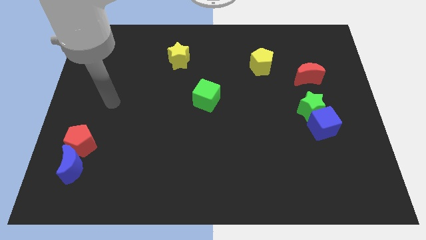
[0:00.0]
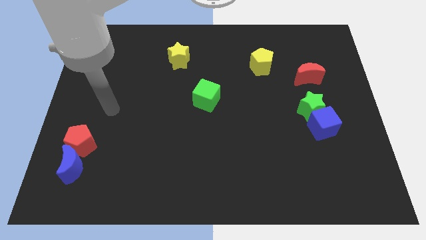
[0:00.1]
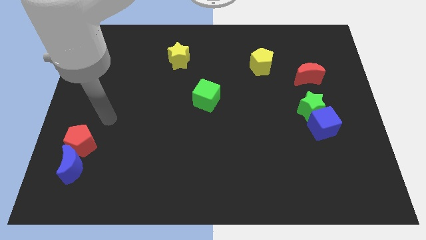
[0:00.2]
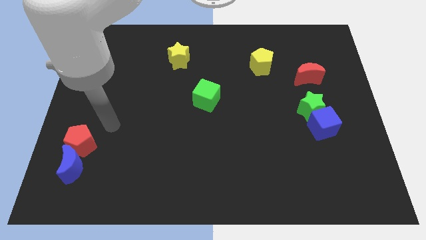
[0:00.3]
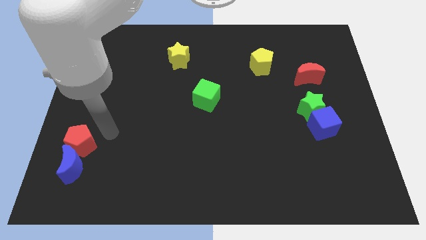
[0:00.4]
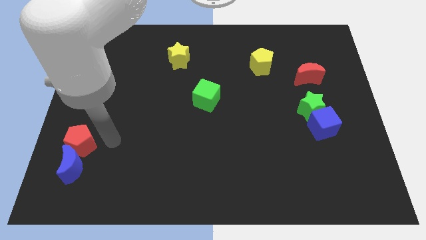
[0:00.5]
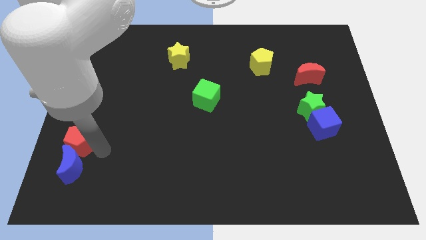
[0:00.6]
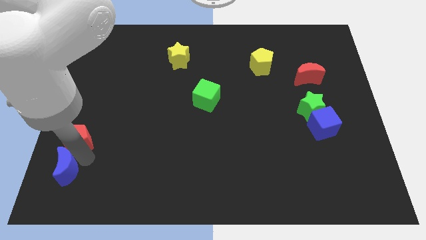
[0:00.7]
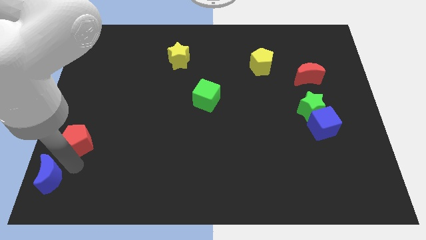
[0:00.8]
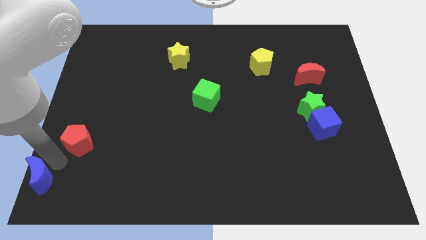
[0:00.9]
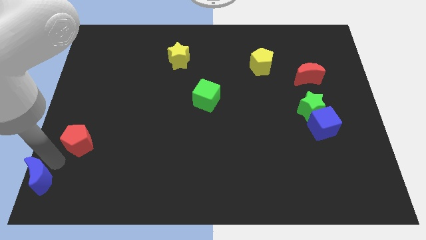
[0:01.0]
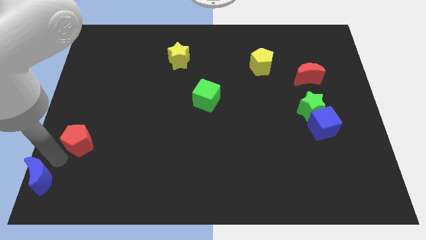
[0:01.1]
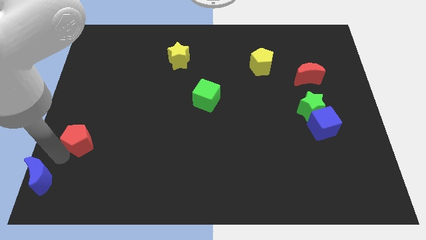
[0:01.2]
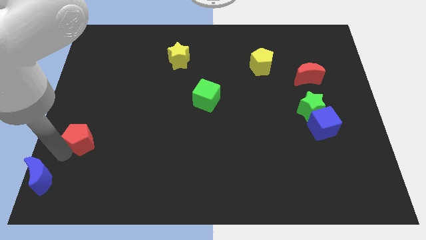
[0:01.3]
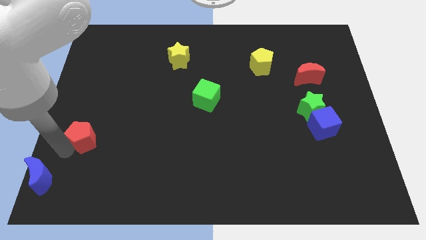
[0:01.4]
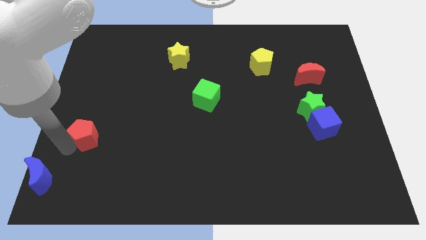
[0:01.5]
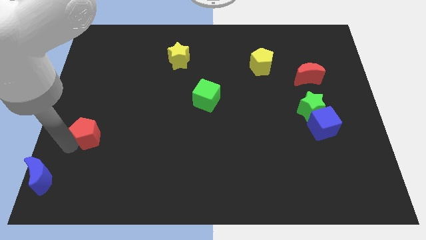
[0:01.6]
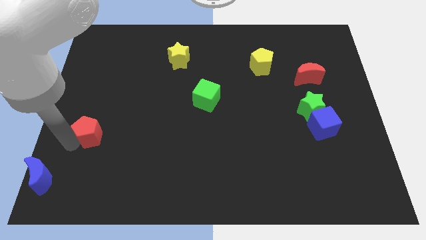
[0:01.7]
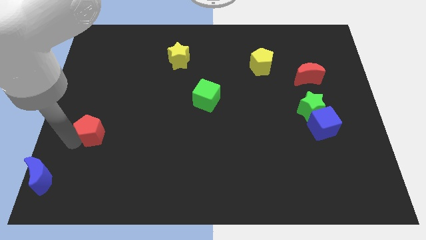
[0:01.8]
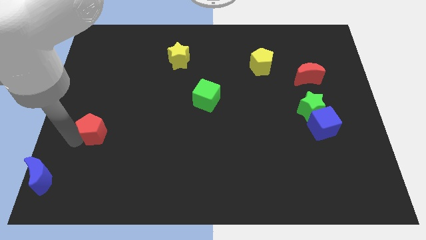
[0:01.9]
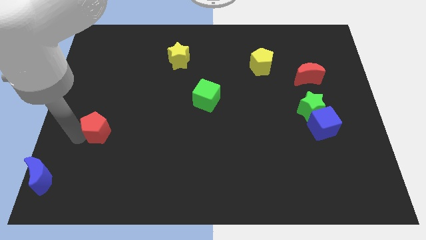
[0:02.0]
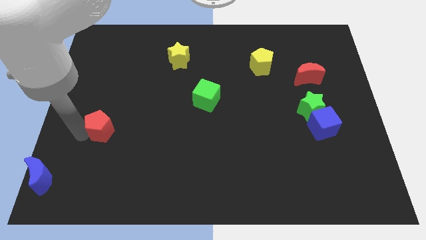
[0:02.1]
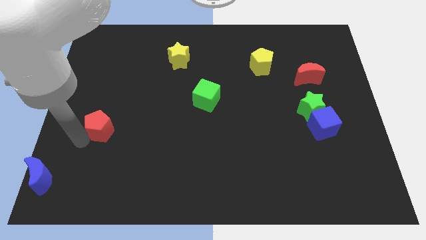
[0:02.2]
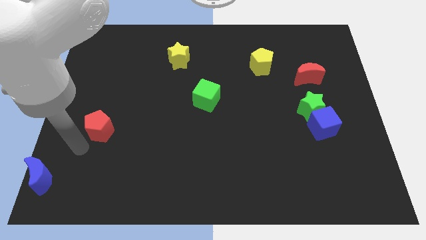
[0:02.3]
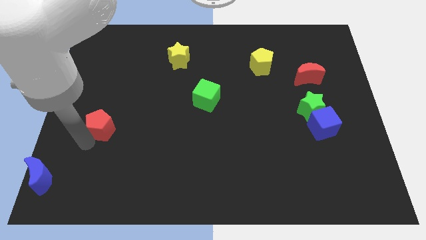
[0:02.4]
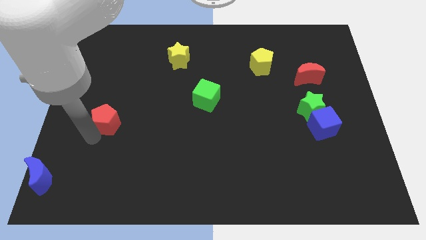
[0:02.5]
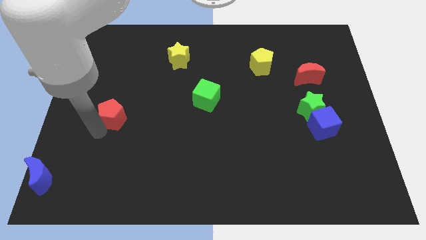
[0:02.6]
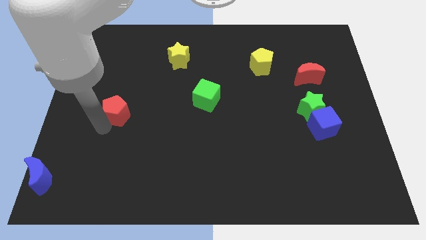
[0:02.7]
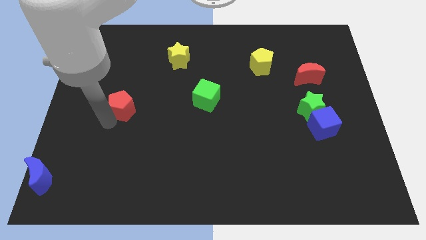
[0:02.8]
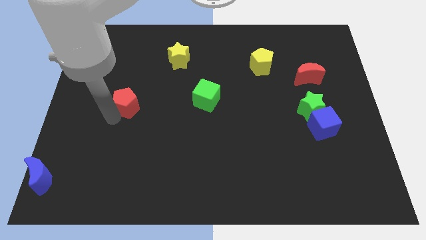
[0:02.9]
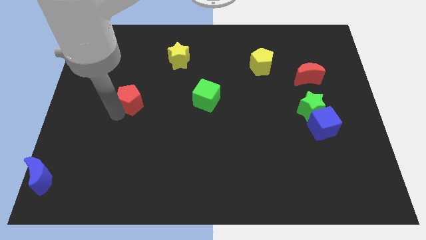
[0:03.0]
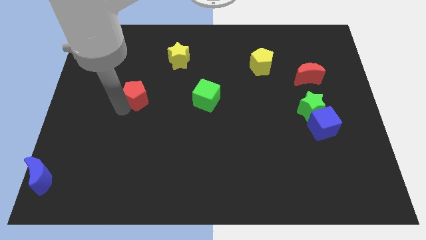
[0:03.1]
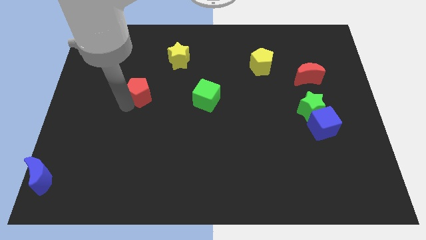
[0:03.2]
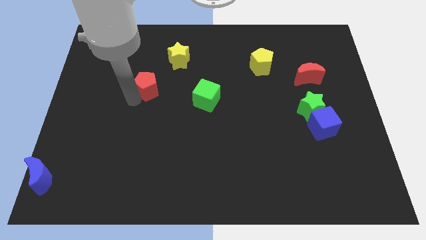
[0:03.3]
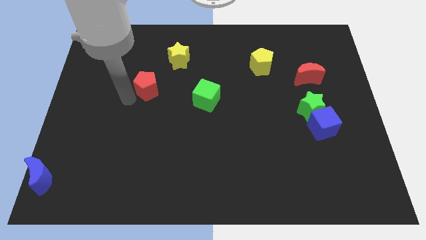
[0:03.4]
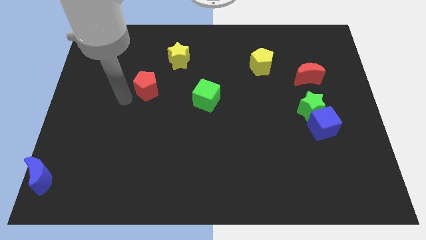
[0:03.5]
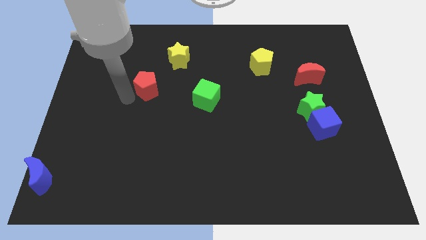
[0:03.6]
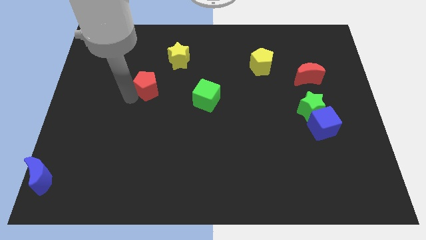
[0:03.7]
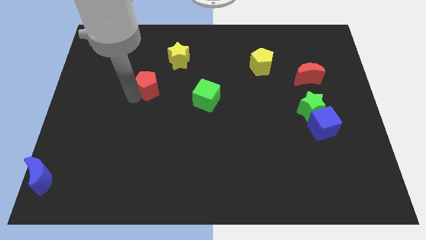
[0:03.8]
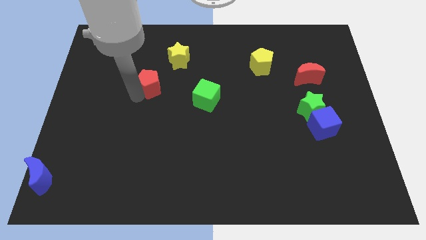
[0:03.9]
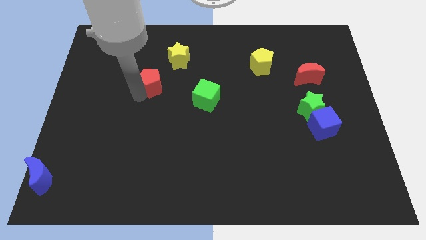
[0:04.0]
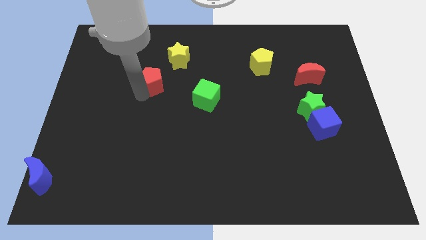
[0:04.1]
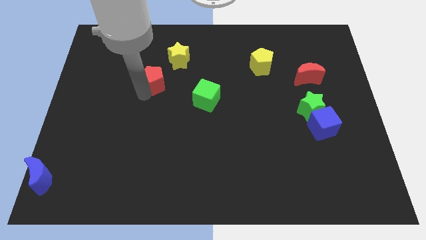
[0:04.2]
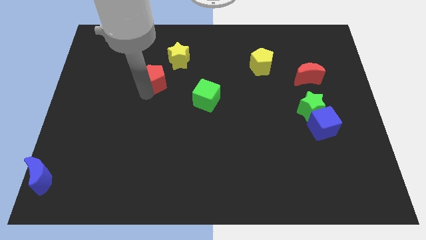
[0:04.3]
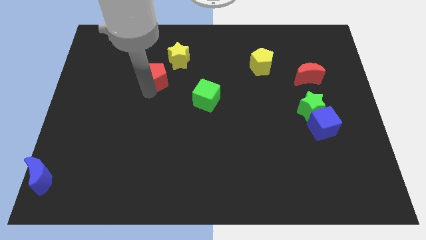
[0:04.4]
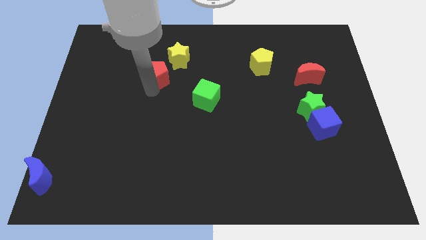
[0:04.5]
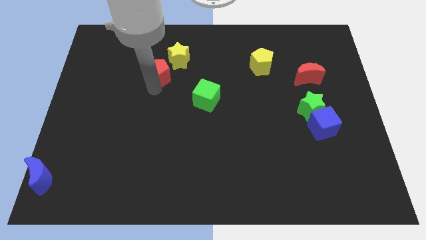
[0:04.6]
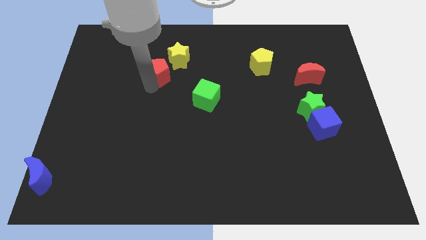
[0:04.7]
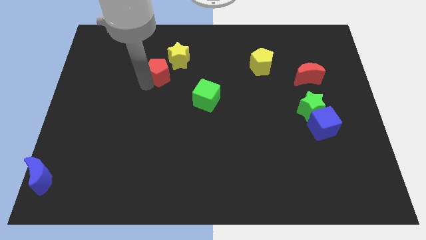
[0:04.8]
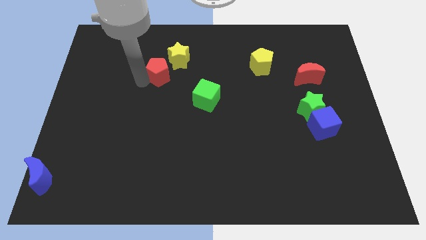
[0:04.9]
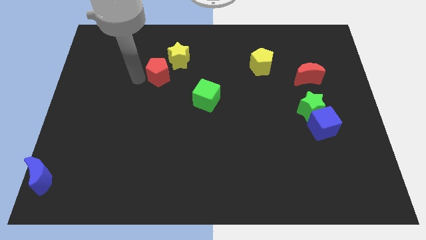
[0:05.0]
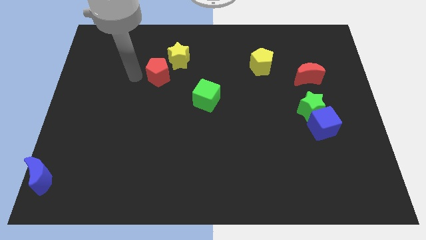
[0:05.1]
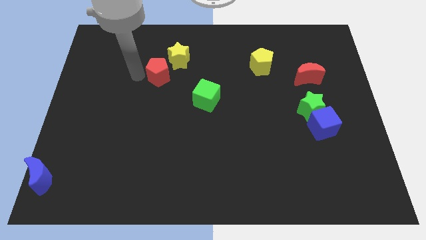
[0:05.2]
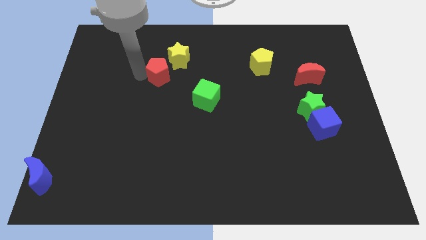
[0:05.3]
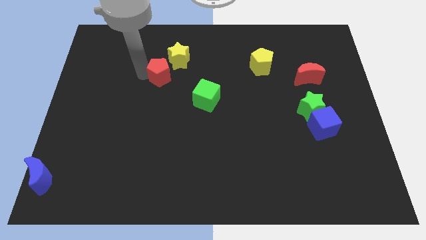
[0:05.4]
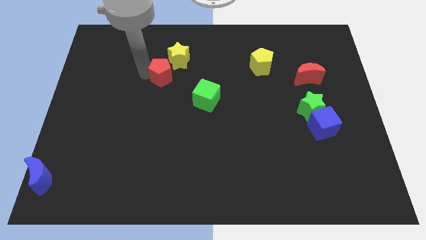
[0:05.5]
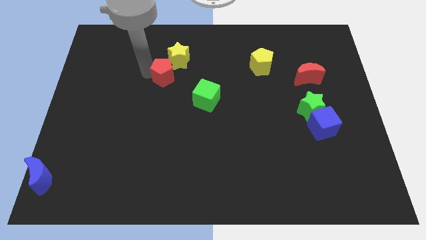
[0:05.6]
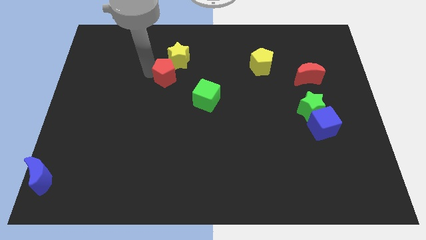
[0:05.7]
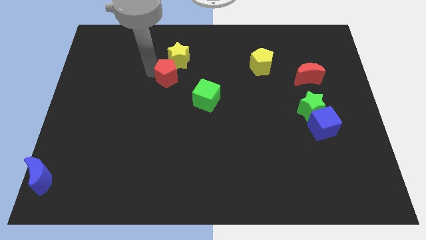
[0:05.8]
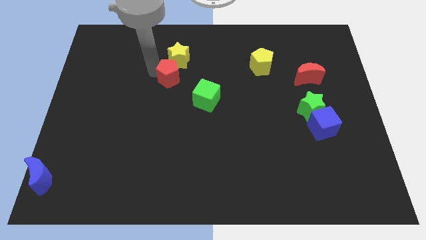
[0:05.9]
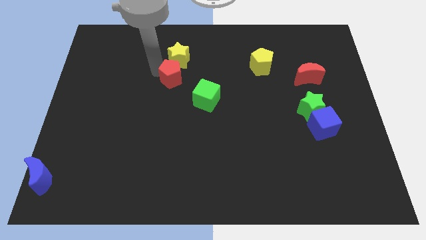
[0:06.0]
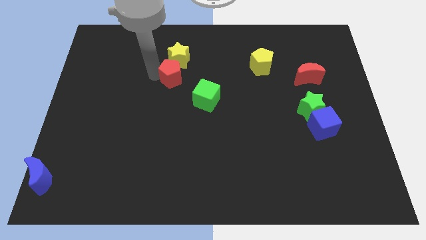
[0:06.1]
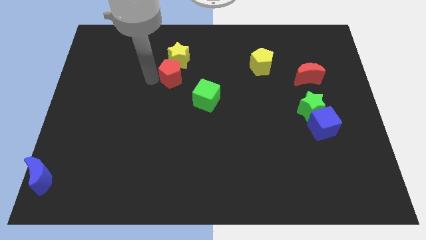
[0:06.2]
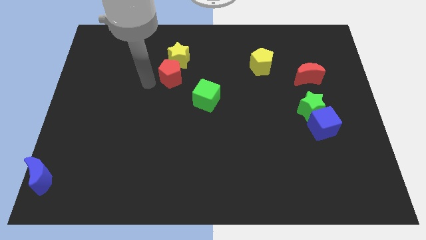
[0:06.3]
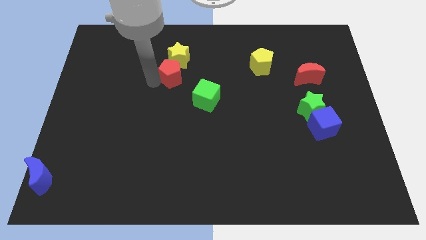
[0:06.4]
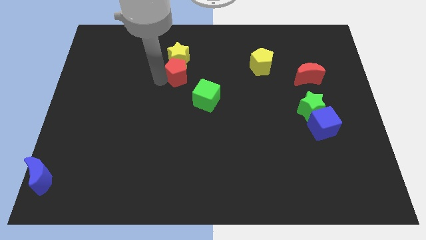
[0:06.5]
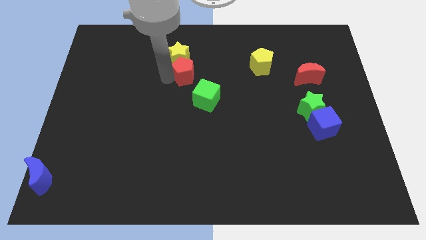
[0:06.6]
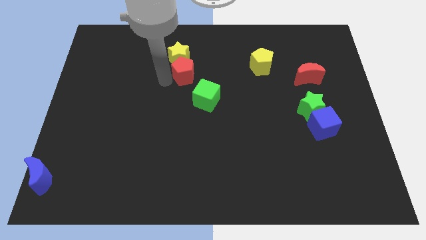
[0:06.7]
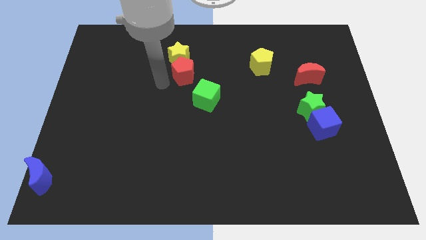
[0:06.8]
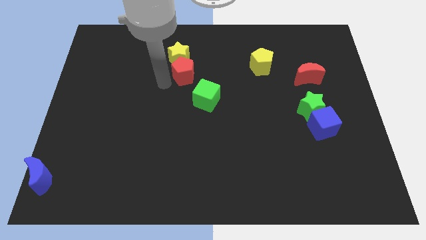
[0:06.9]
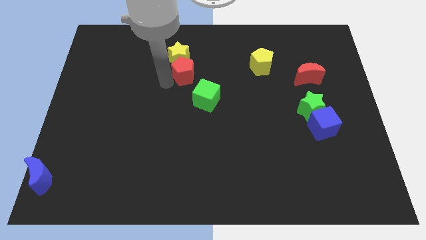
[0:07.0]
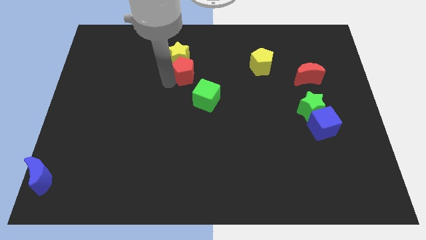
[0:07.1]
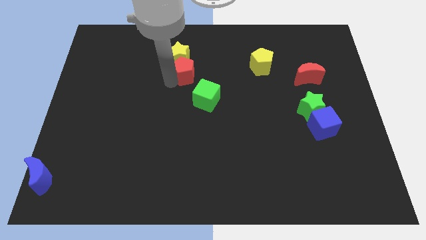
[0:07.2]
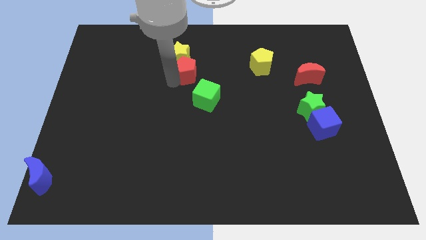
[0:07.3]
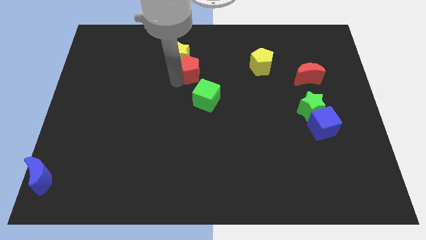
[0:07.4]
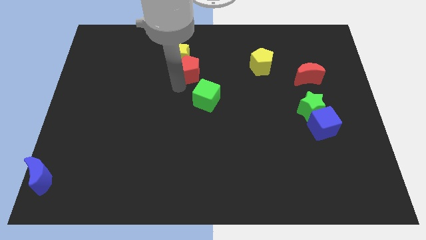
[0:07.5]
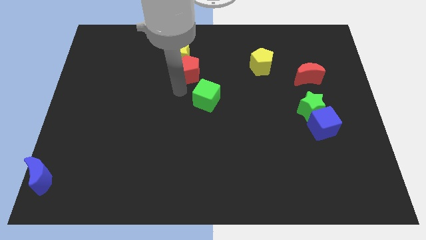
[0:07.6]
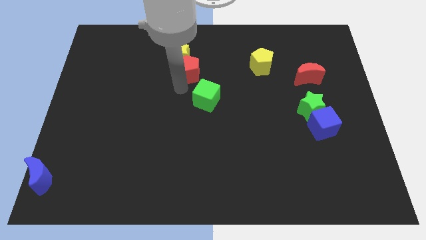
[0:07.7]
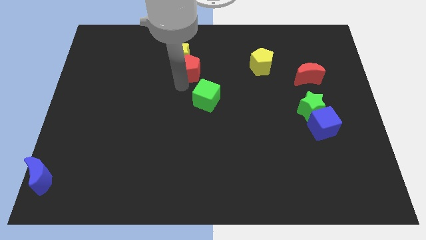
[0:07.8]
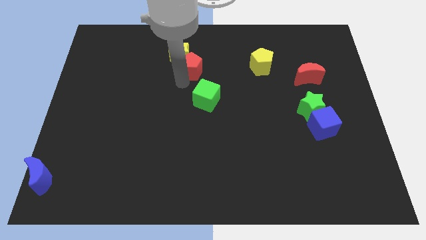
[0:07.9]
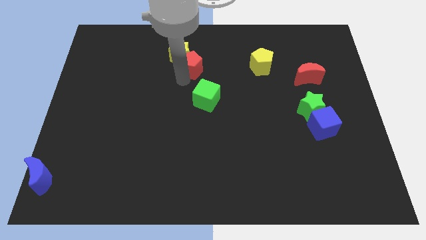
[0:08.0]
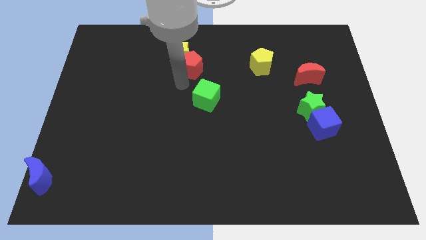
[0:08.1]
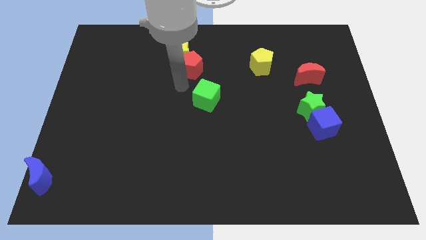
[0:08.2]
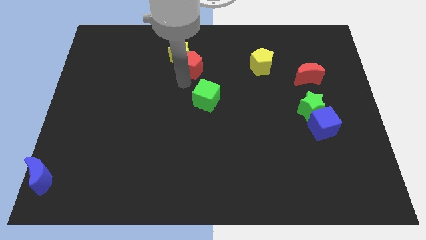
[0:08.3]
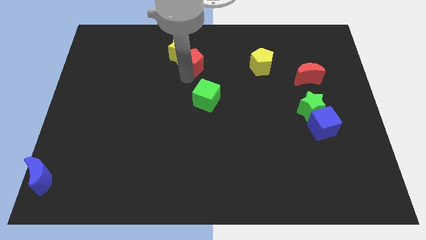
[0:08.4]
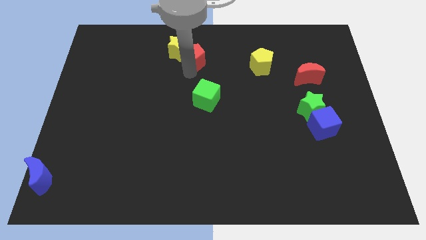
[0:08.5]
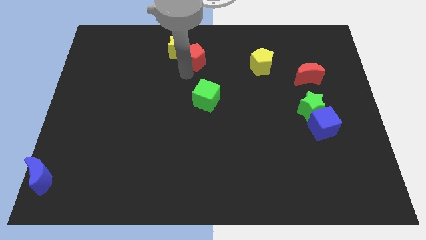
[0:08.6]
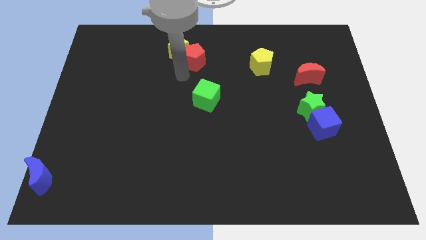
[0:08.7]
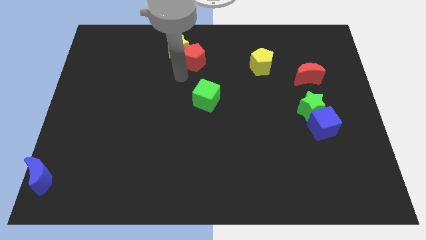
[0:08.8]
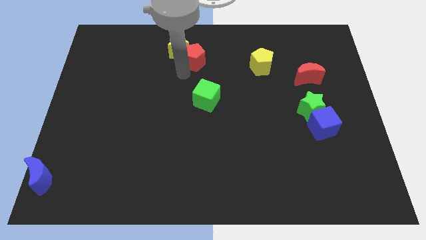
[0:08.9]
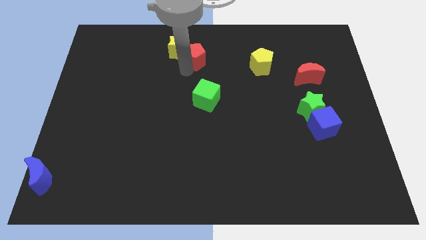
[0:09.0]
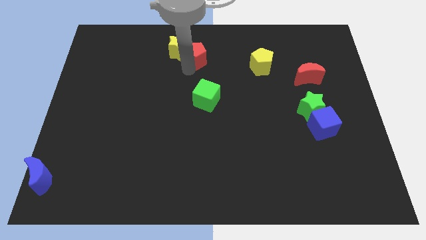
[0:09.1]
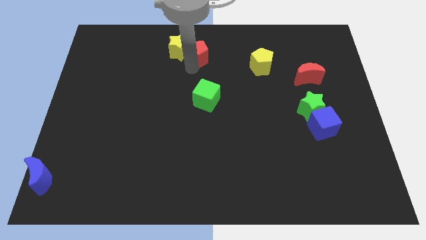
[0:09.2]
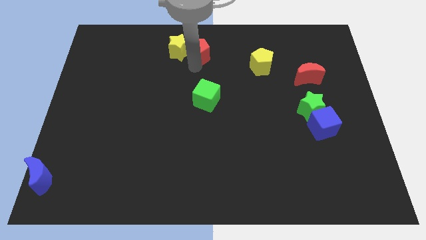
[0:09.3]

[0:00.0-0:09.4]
slide the red pentagon to the top side
